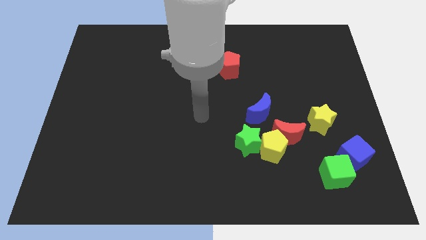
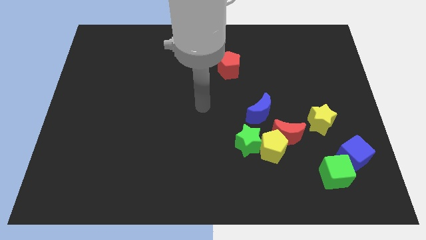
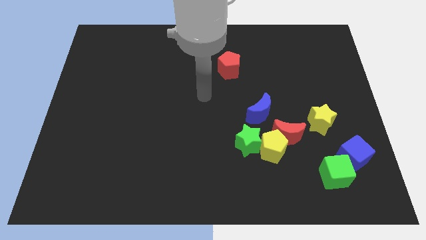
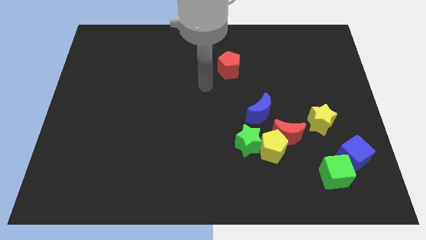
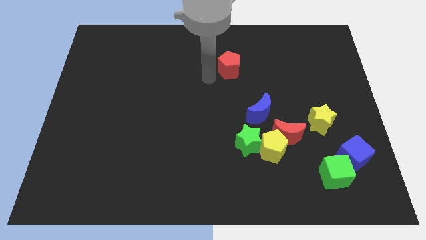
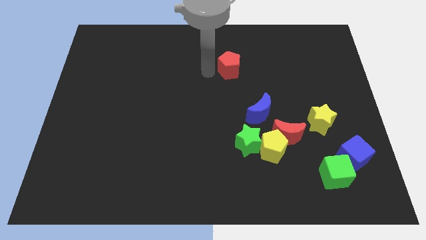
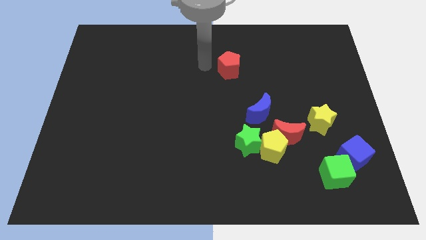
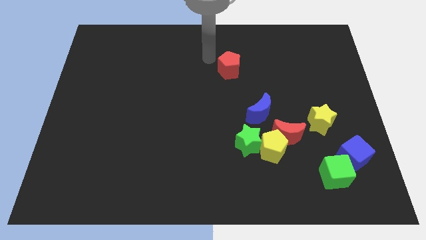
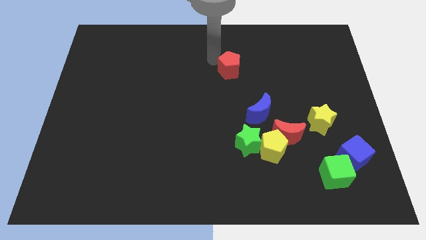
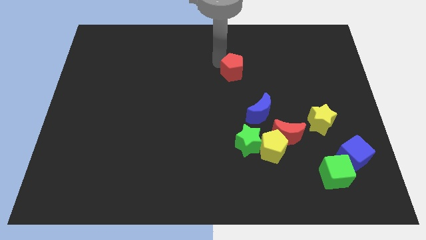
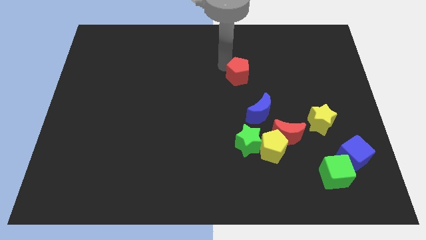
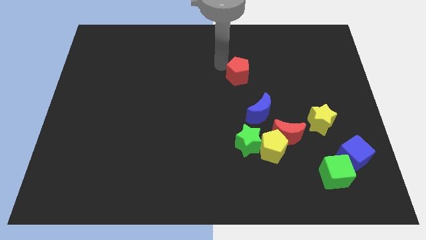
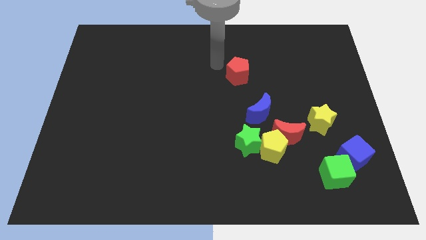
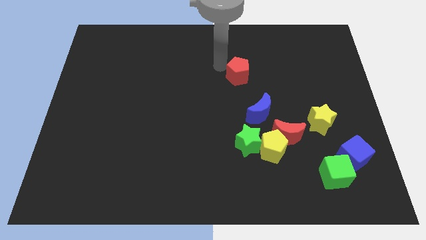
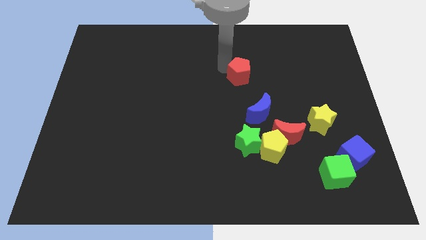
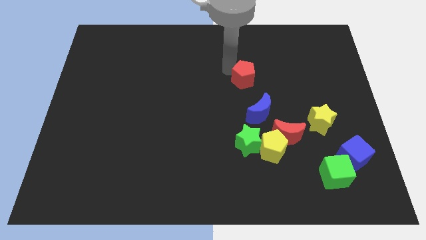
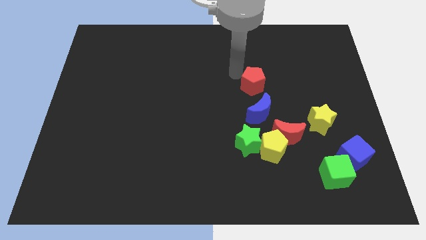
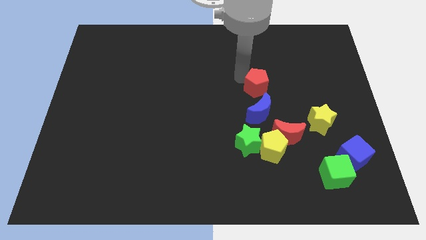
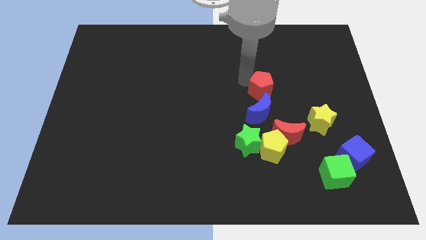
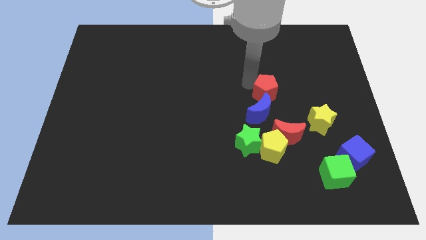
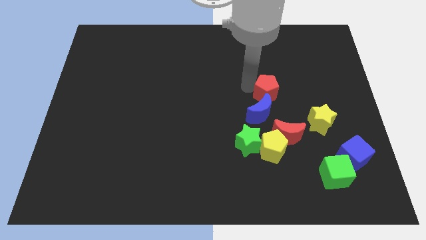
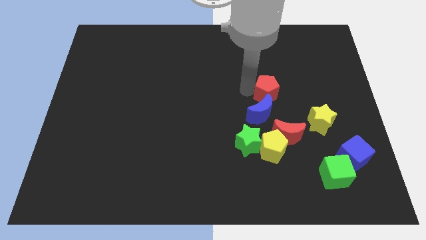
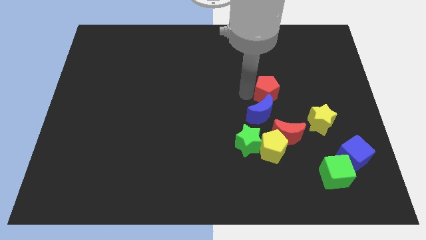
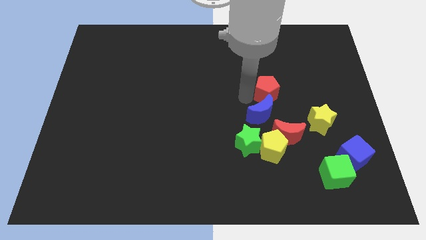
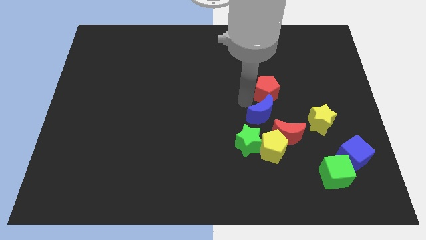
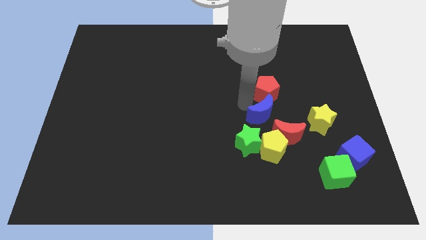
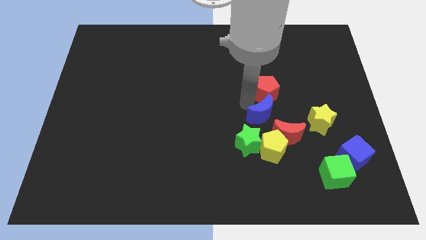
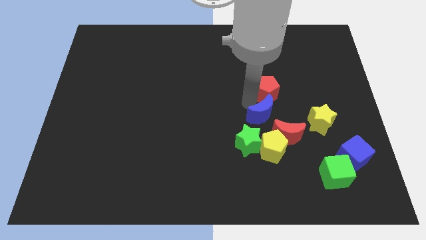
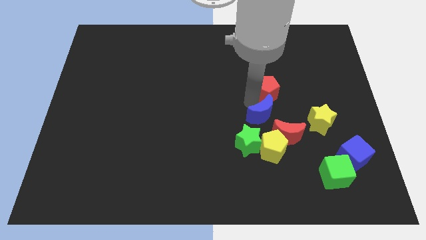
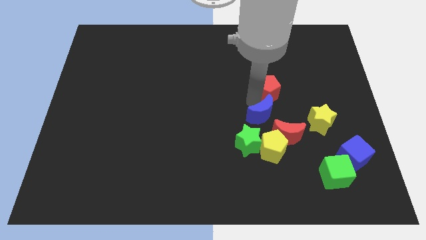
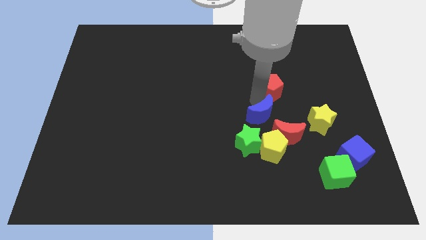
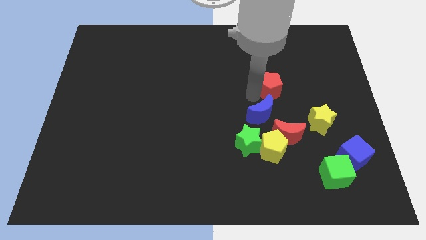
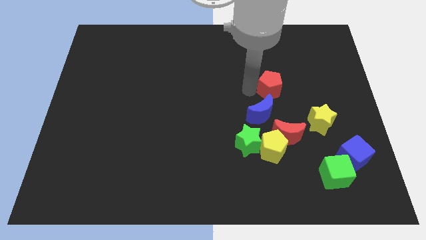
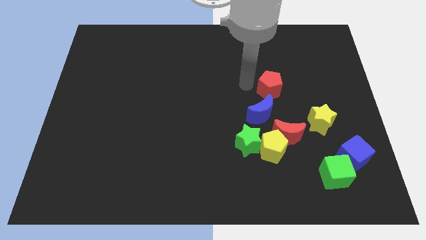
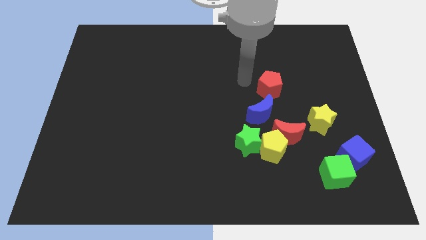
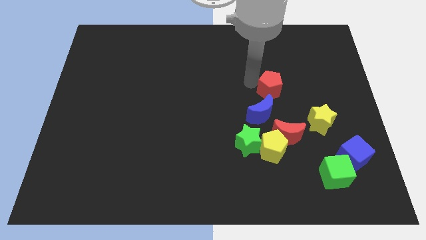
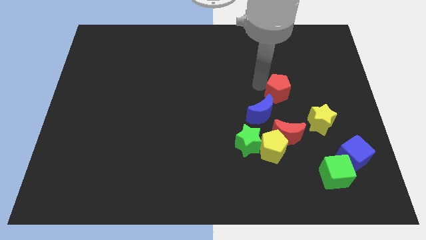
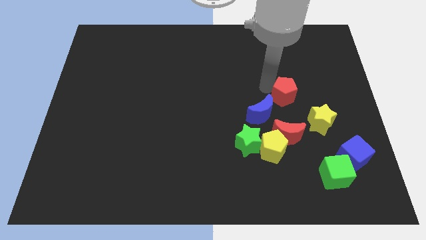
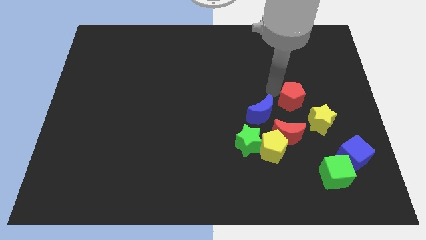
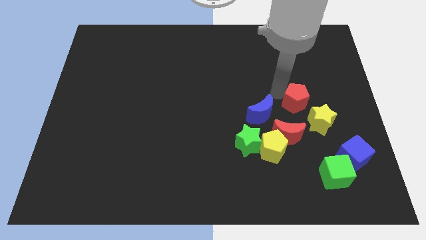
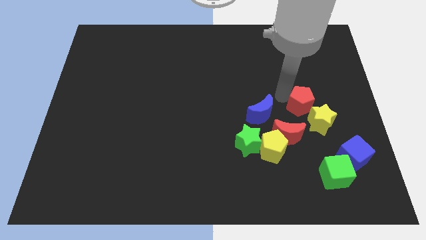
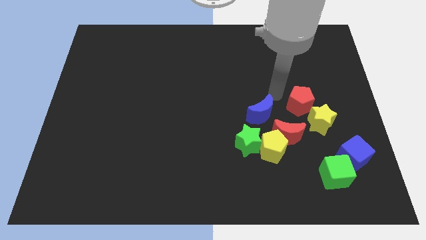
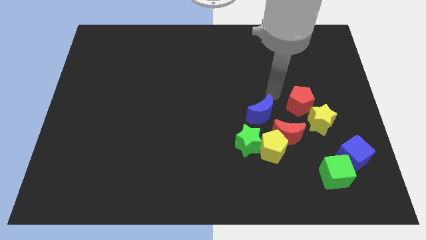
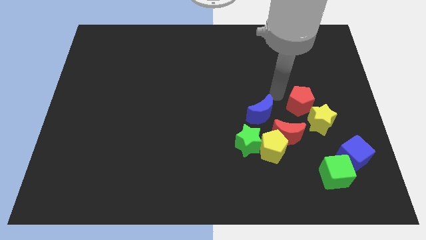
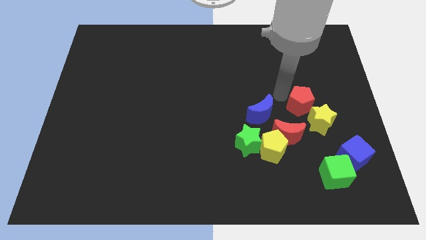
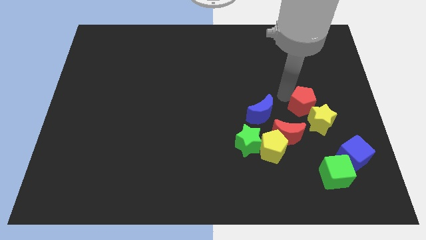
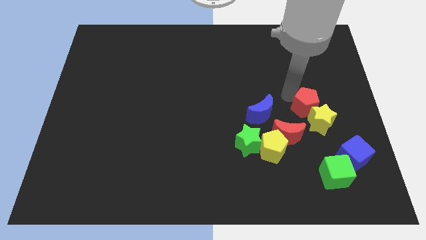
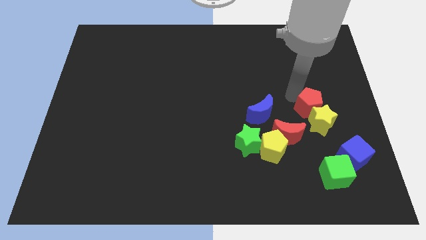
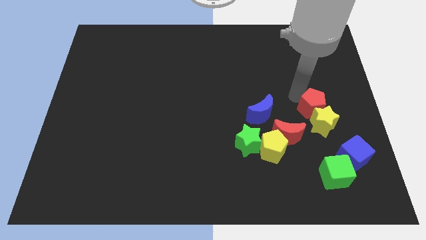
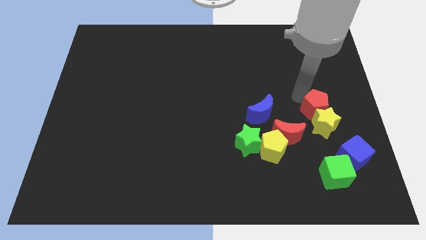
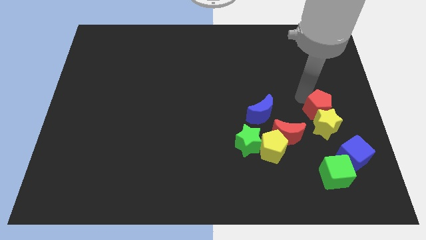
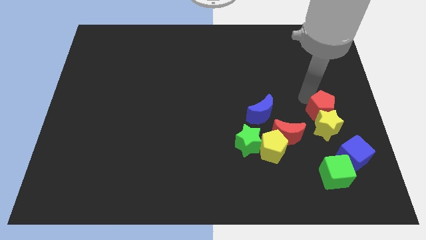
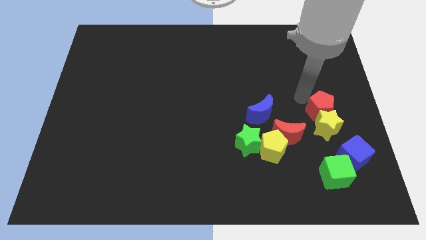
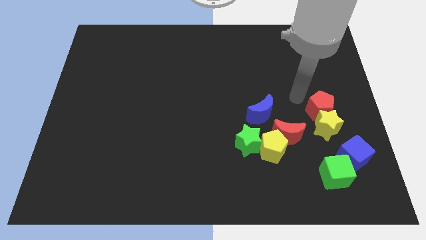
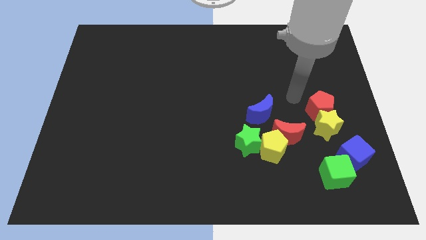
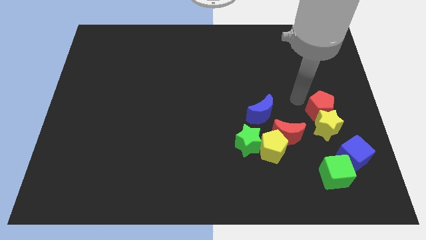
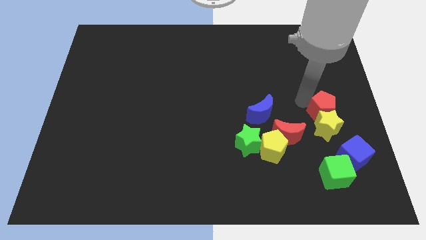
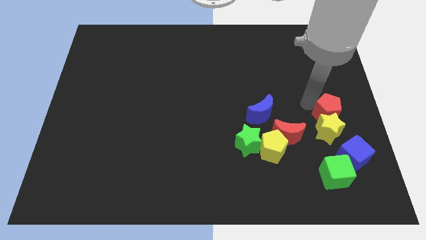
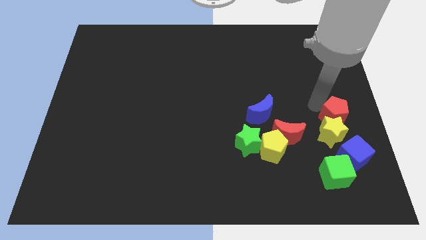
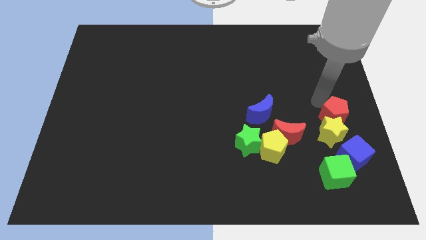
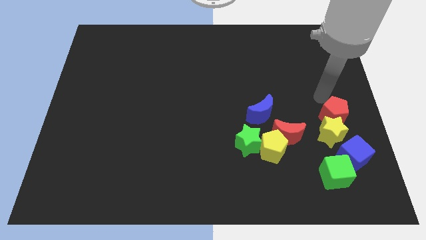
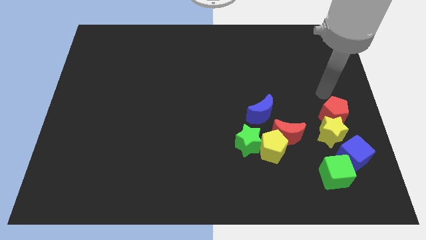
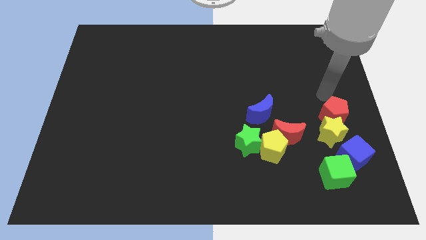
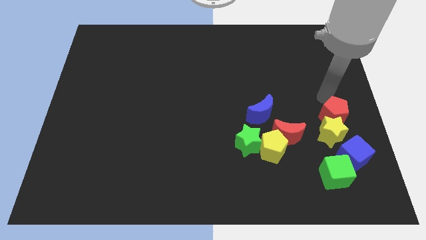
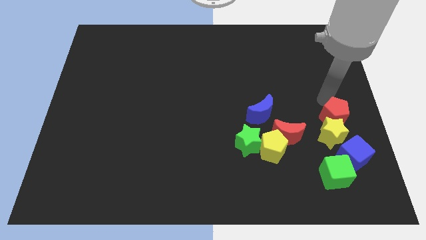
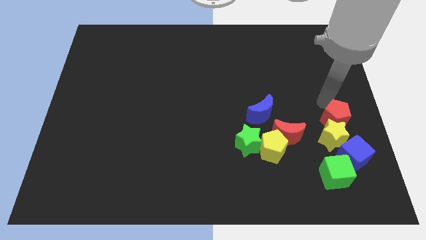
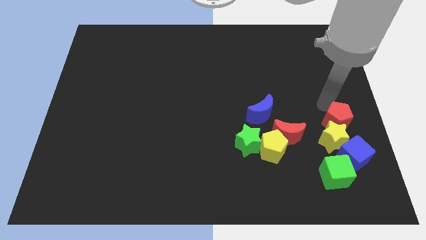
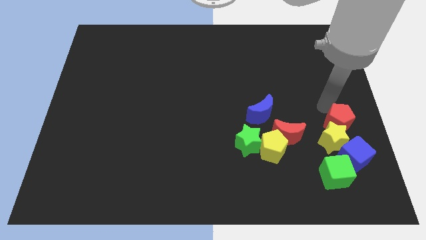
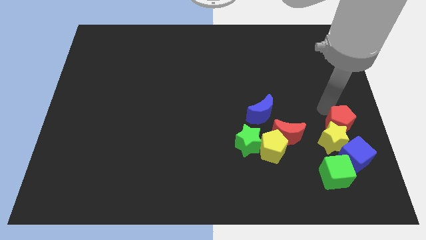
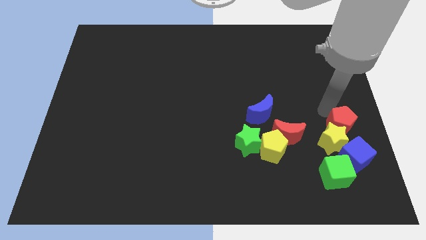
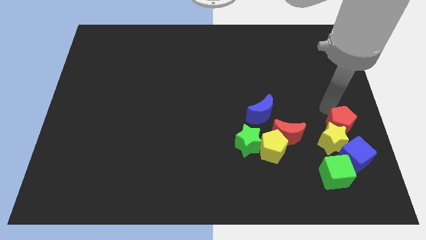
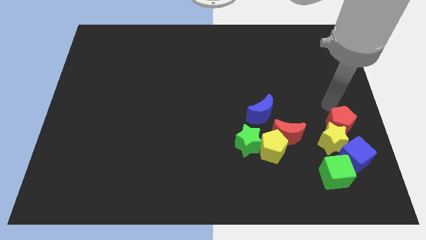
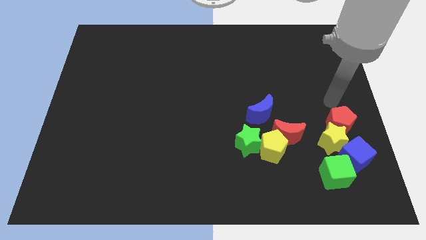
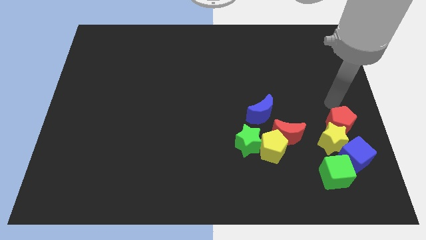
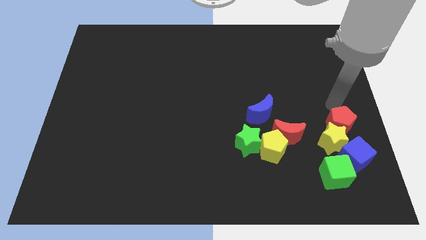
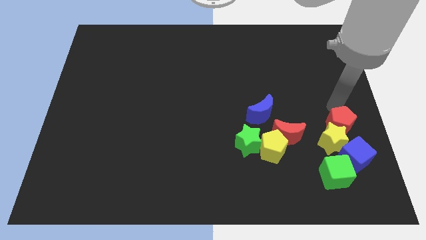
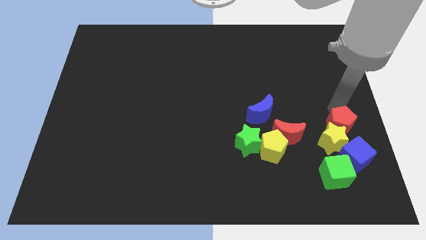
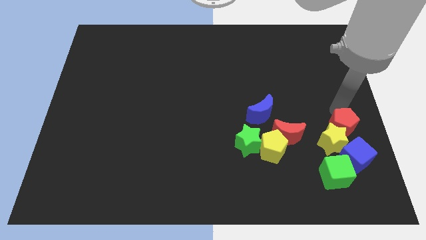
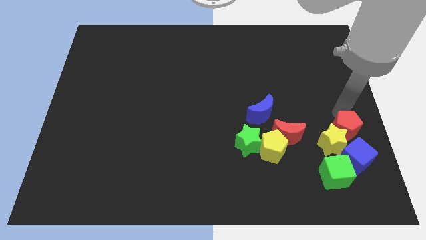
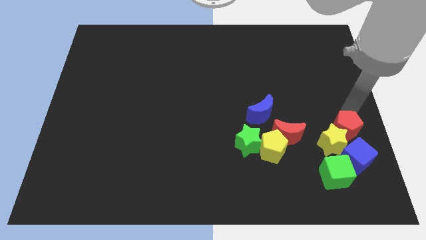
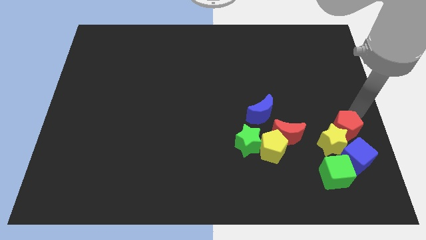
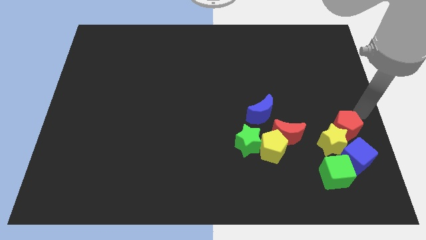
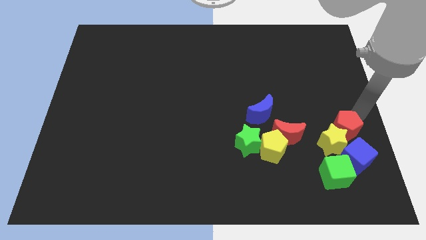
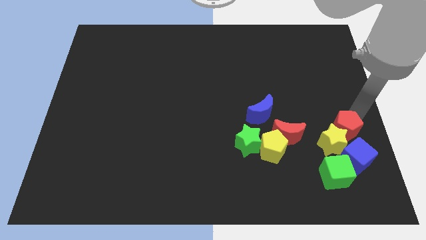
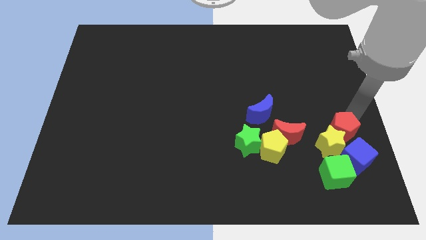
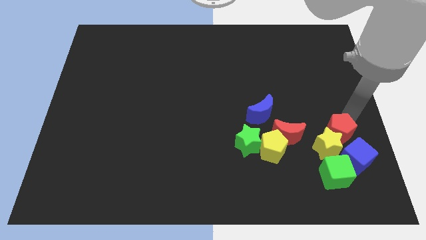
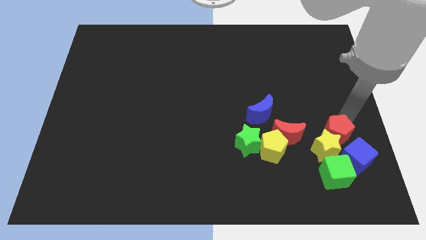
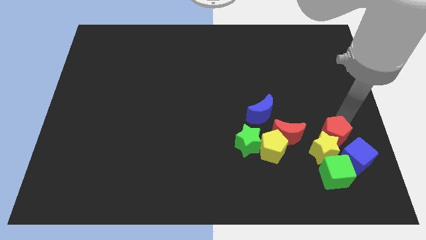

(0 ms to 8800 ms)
put the red pentagon to the right side of the yellow pentagon
